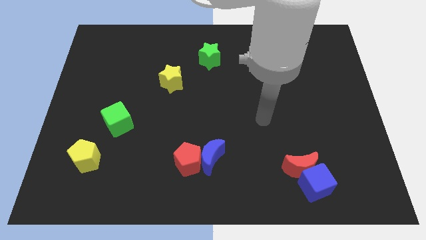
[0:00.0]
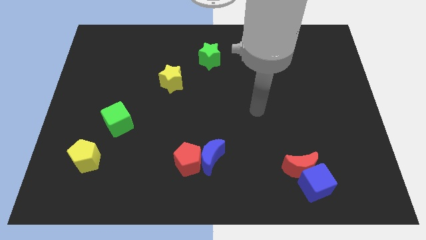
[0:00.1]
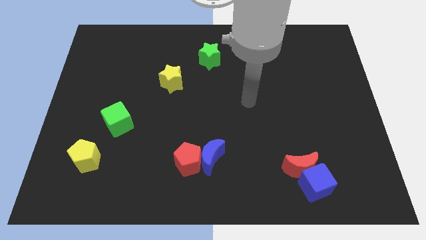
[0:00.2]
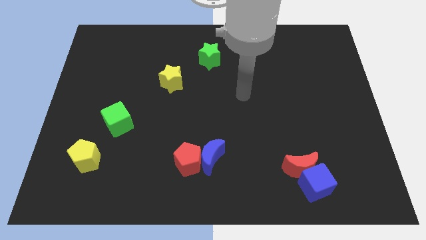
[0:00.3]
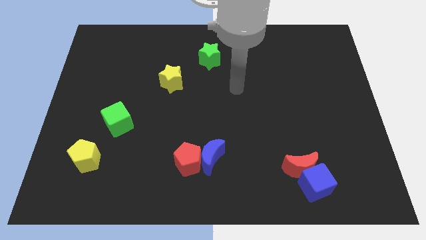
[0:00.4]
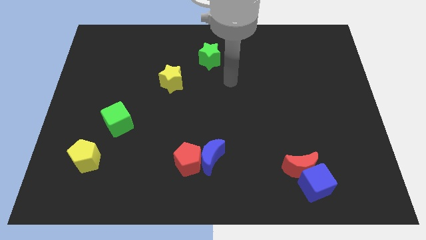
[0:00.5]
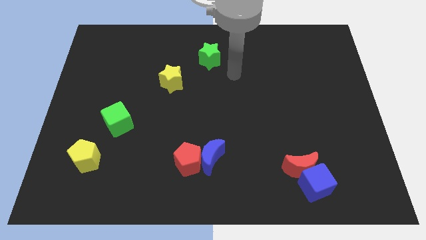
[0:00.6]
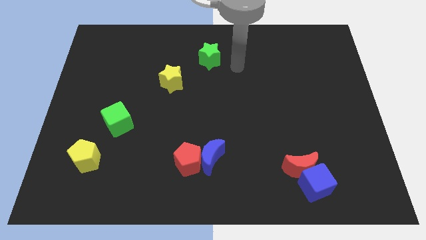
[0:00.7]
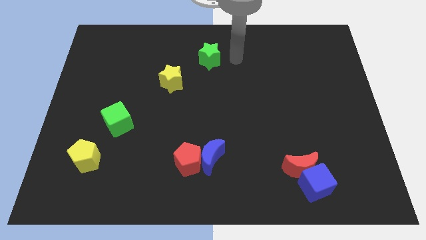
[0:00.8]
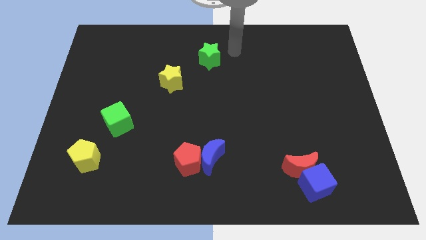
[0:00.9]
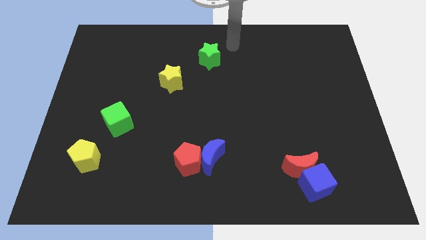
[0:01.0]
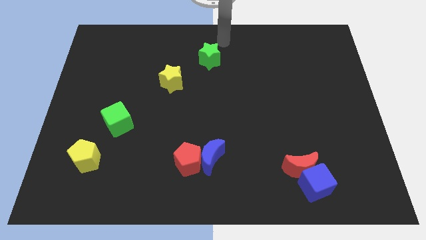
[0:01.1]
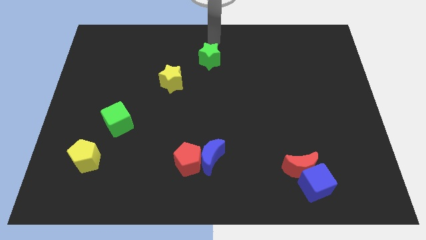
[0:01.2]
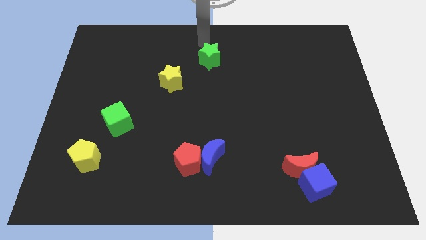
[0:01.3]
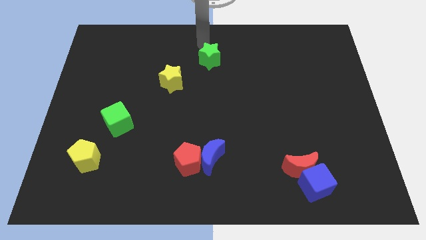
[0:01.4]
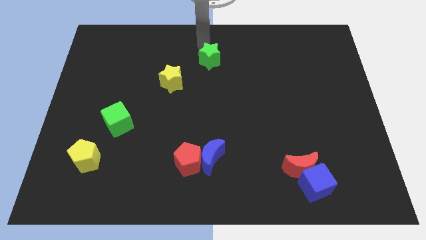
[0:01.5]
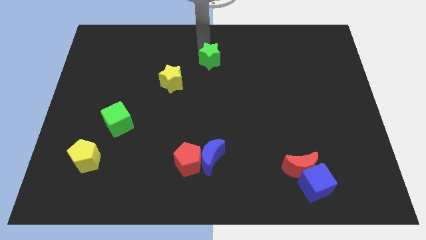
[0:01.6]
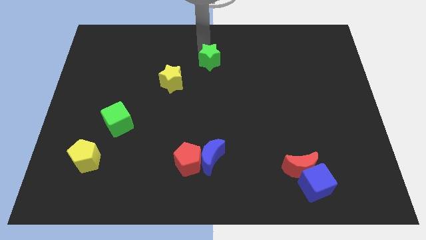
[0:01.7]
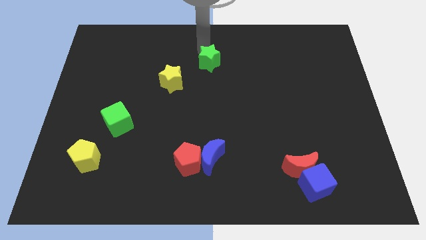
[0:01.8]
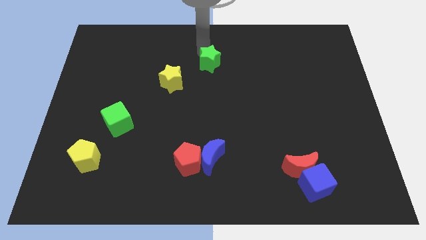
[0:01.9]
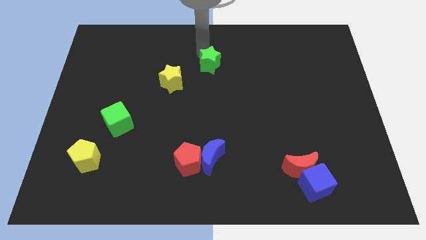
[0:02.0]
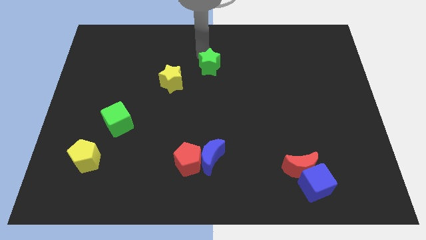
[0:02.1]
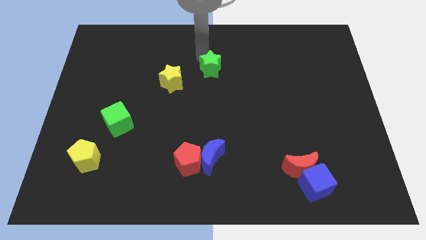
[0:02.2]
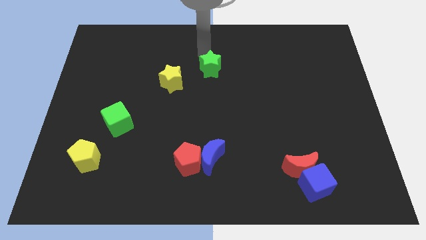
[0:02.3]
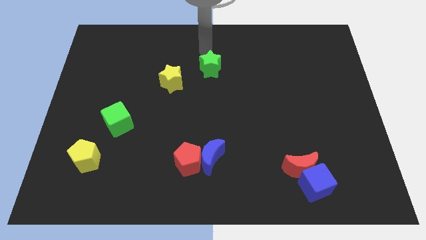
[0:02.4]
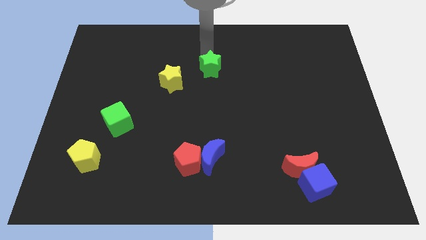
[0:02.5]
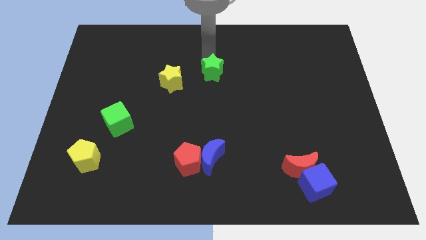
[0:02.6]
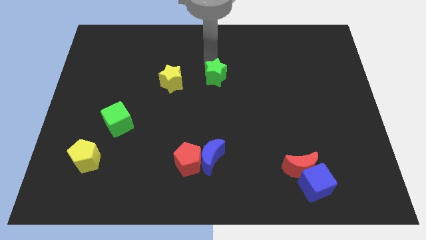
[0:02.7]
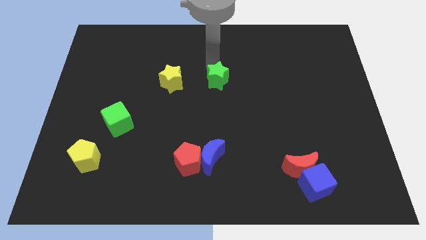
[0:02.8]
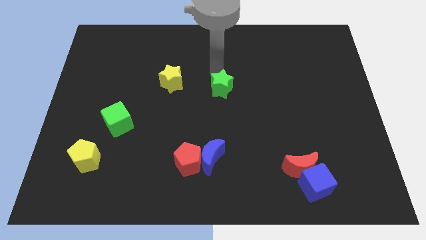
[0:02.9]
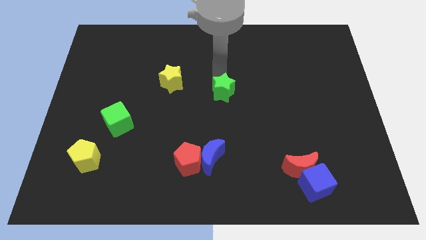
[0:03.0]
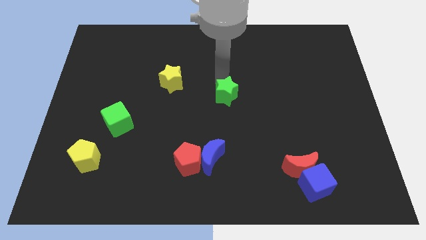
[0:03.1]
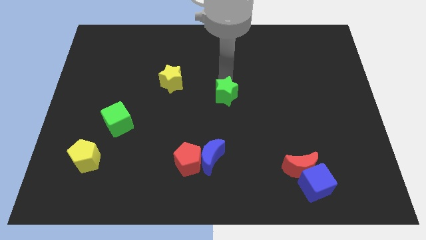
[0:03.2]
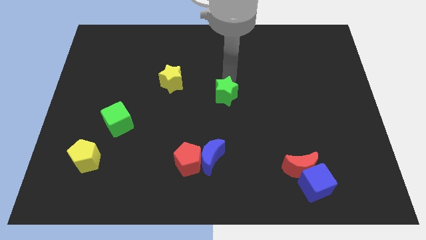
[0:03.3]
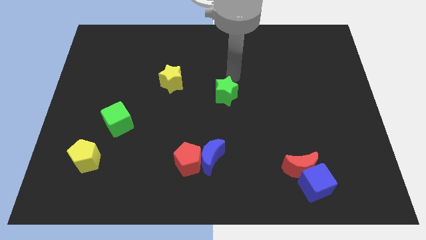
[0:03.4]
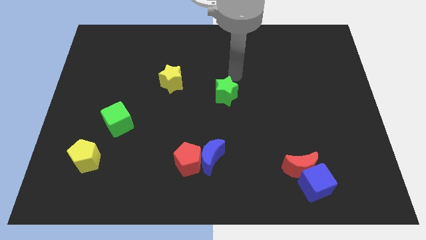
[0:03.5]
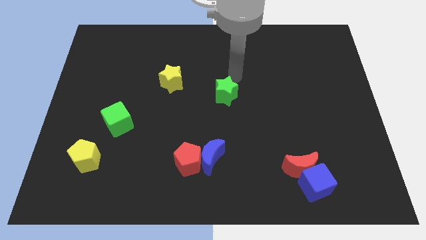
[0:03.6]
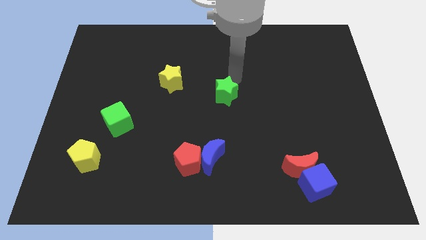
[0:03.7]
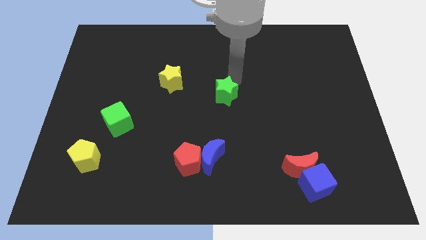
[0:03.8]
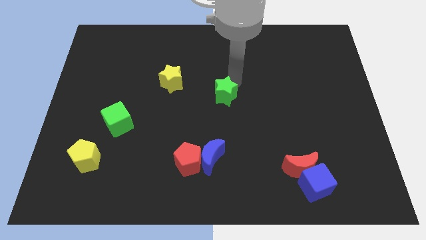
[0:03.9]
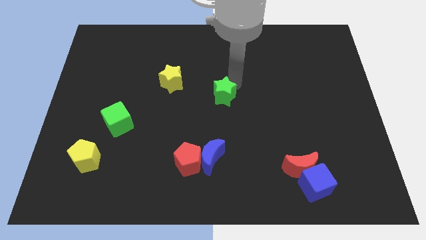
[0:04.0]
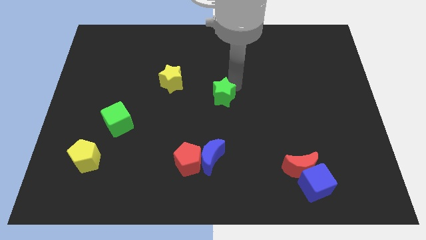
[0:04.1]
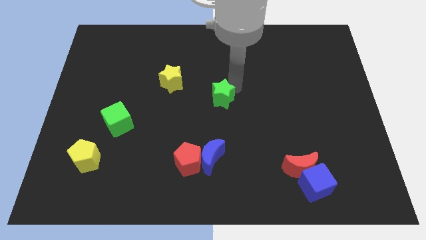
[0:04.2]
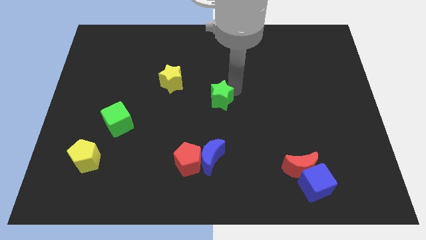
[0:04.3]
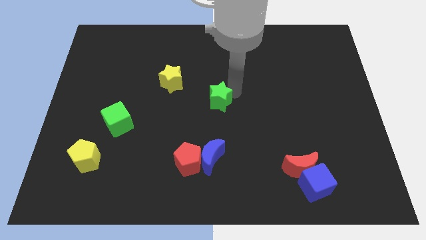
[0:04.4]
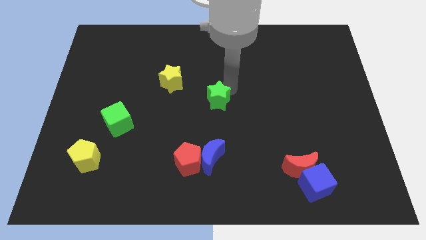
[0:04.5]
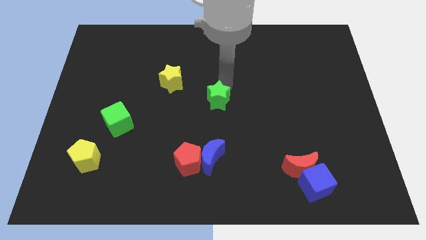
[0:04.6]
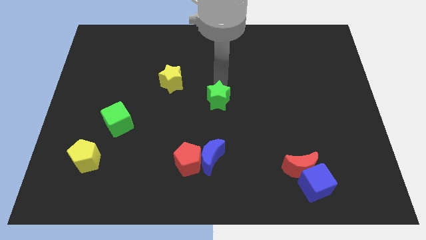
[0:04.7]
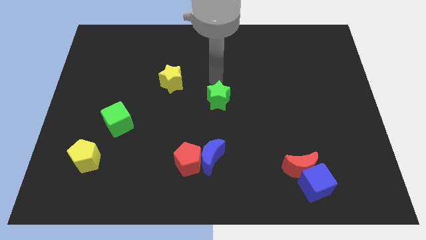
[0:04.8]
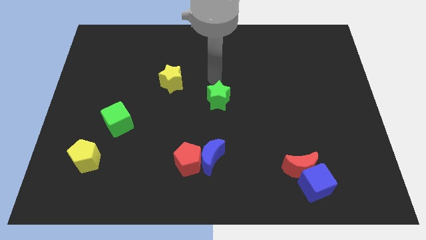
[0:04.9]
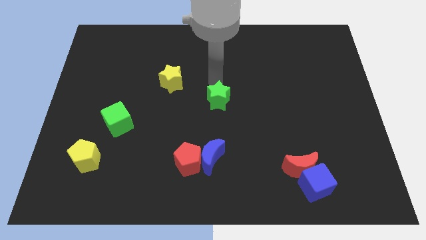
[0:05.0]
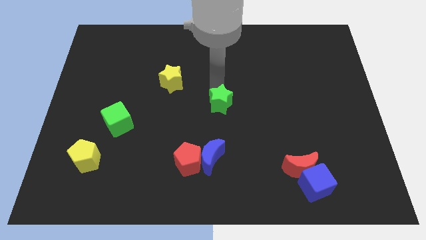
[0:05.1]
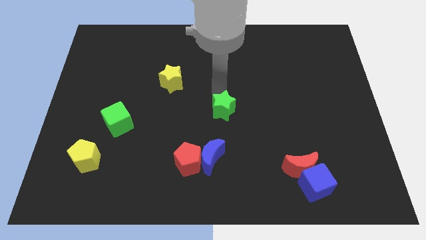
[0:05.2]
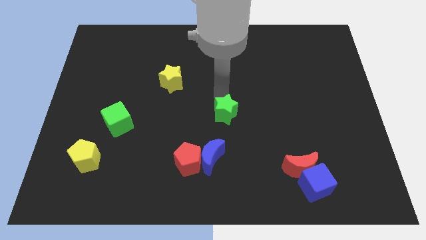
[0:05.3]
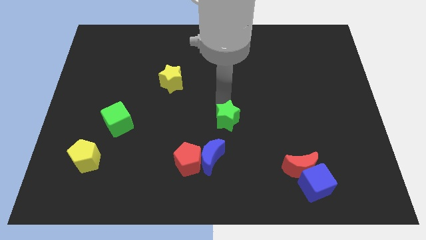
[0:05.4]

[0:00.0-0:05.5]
move the green star to the top right side of the blue moon

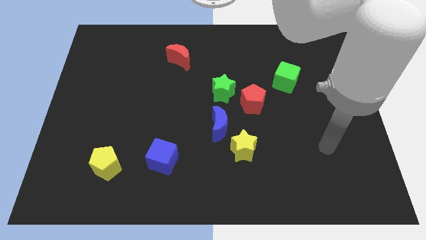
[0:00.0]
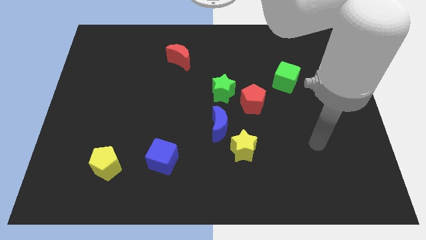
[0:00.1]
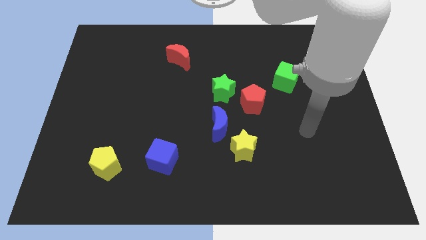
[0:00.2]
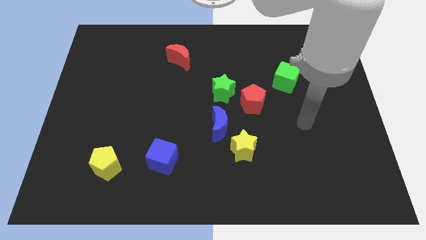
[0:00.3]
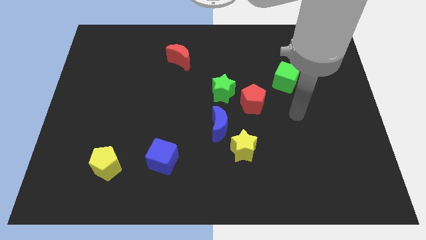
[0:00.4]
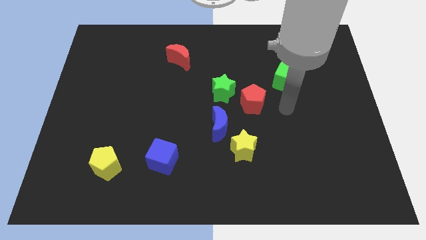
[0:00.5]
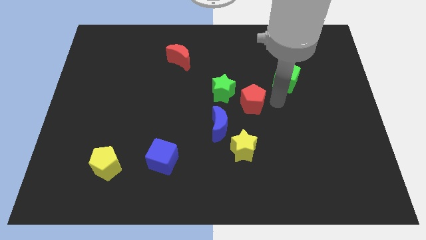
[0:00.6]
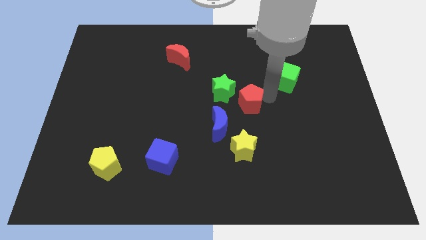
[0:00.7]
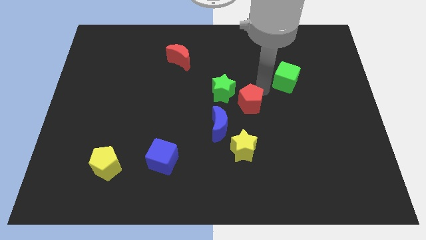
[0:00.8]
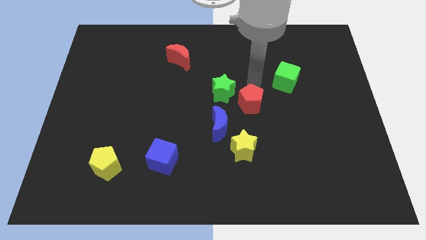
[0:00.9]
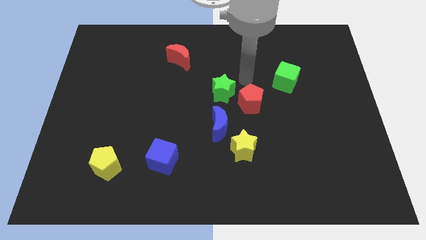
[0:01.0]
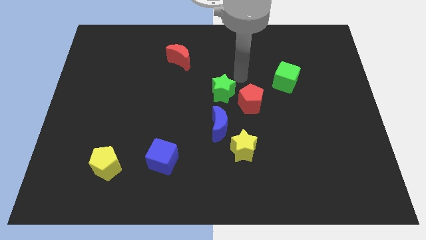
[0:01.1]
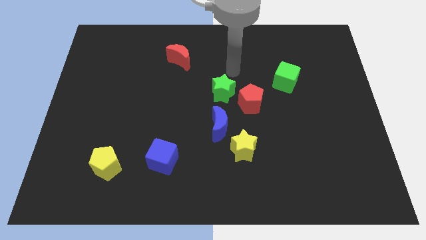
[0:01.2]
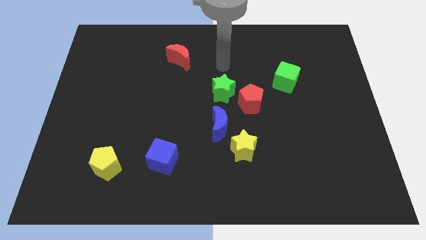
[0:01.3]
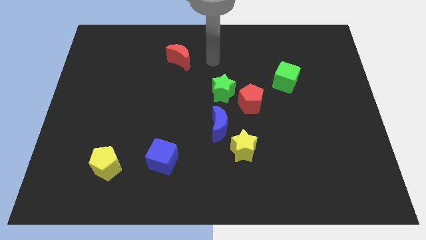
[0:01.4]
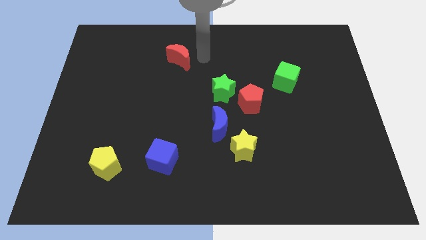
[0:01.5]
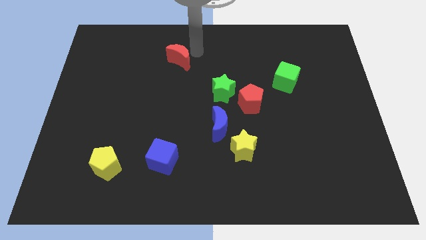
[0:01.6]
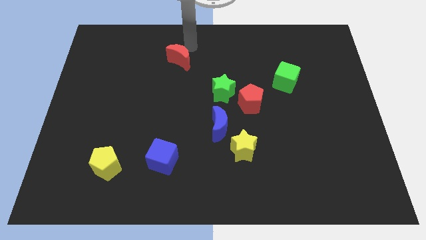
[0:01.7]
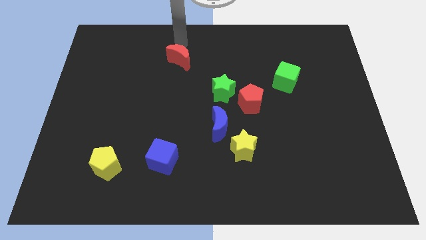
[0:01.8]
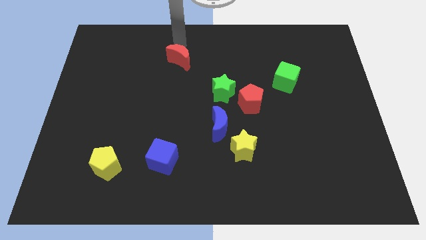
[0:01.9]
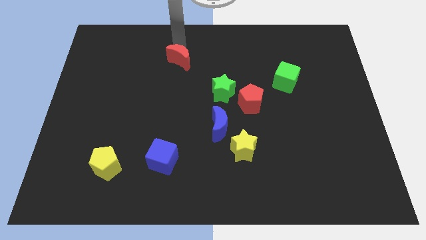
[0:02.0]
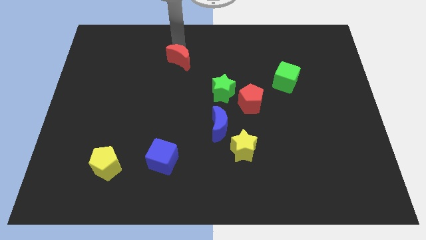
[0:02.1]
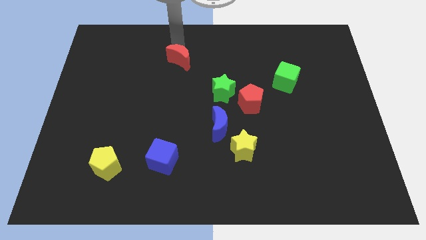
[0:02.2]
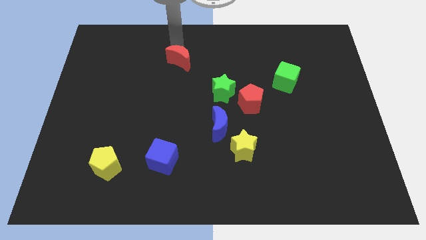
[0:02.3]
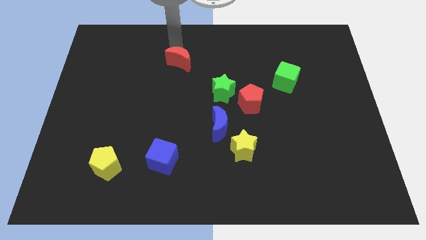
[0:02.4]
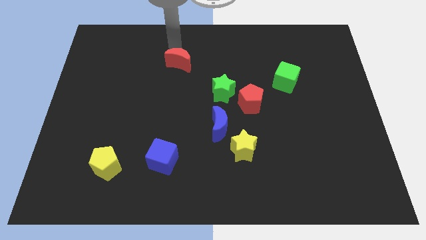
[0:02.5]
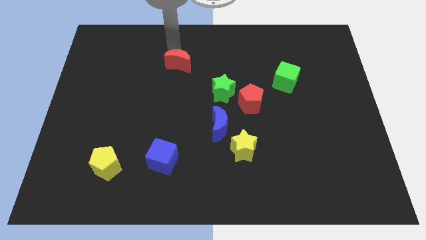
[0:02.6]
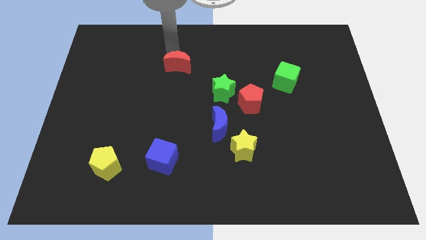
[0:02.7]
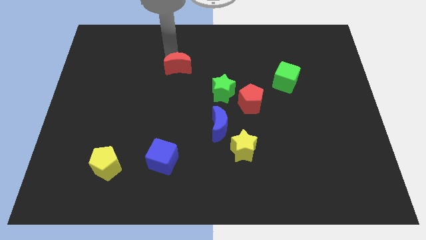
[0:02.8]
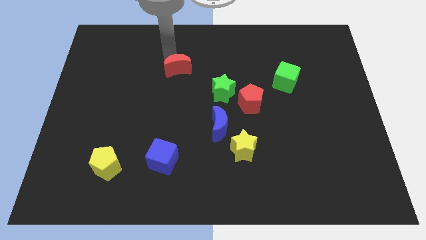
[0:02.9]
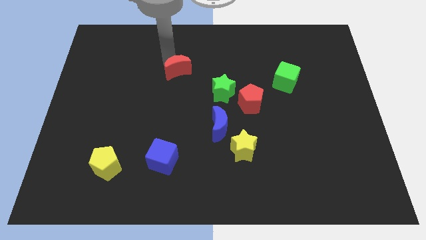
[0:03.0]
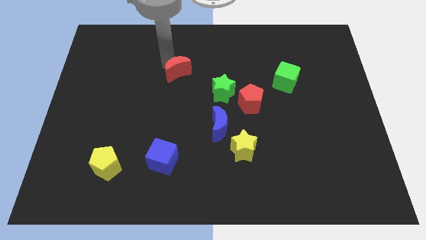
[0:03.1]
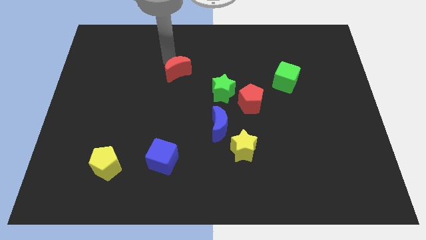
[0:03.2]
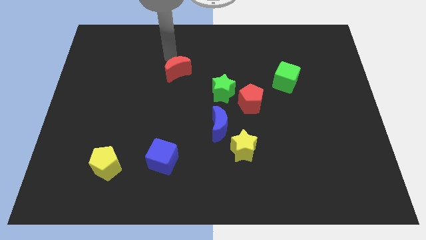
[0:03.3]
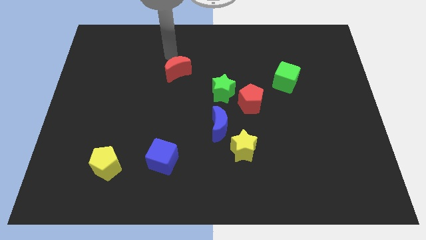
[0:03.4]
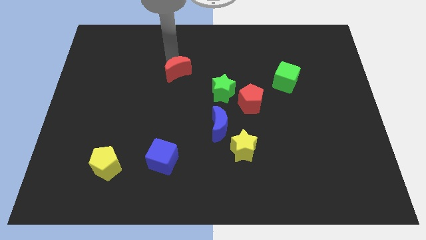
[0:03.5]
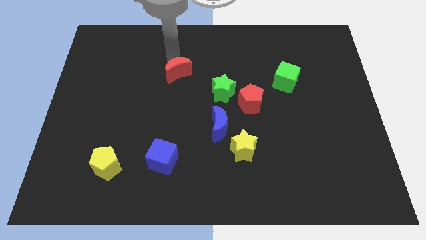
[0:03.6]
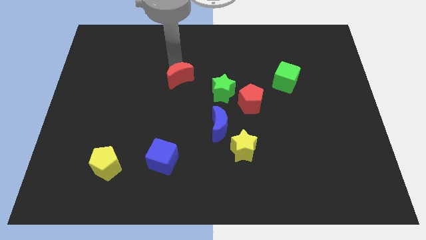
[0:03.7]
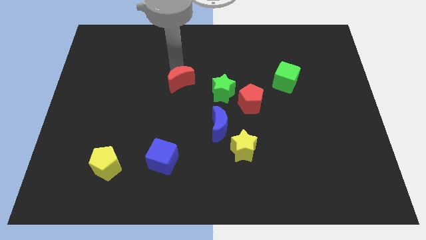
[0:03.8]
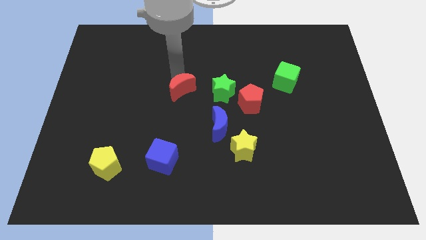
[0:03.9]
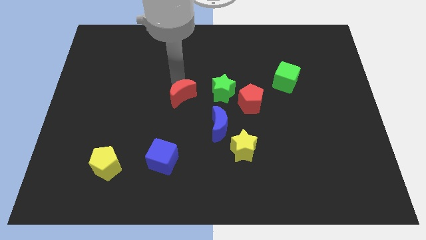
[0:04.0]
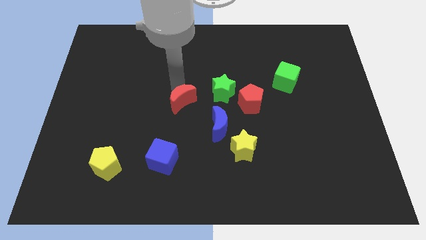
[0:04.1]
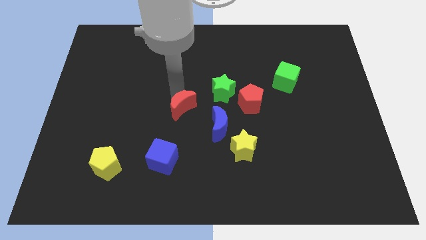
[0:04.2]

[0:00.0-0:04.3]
move the red moon diagonally down and to the left of the green star
